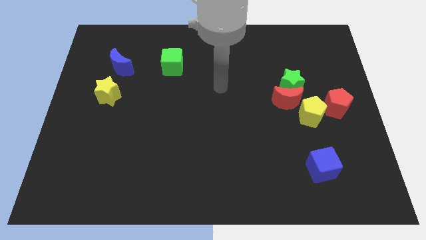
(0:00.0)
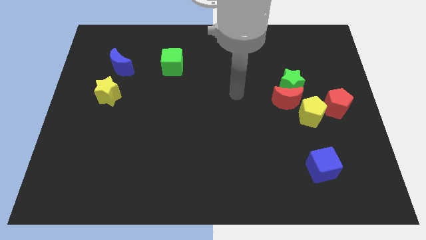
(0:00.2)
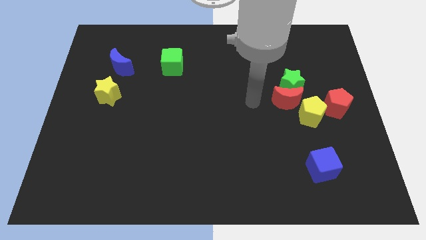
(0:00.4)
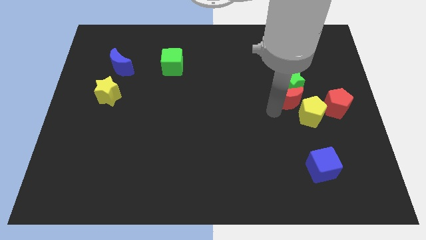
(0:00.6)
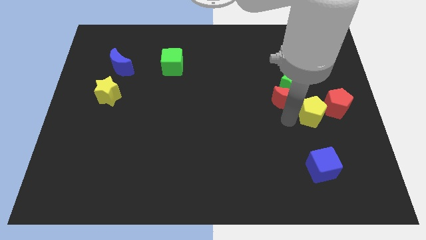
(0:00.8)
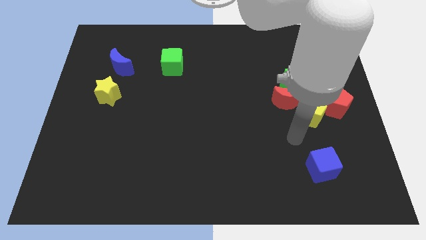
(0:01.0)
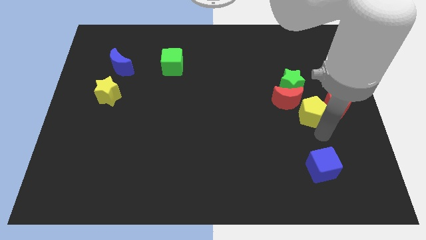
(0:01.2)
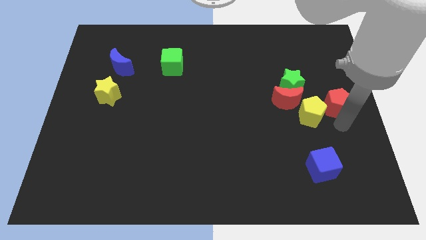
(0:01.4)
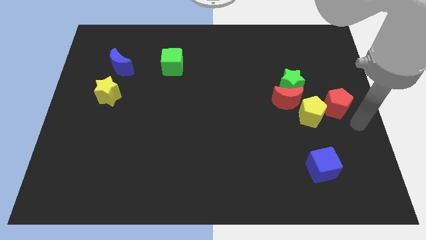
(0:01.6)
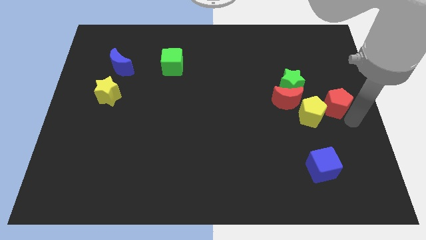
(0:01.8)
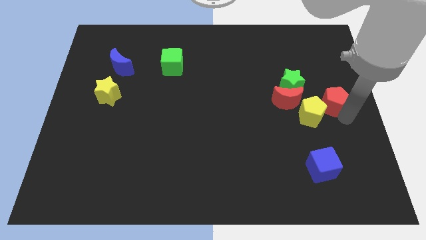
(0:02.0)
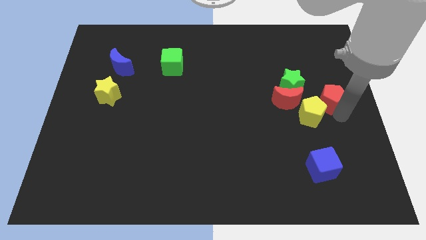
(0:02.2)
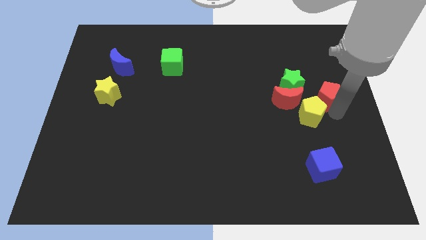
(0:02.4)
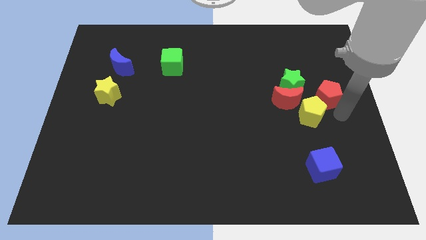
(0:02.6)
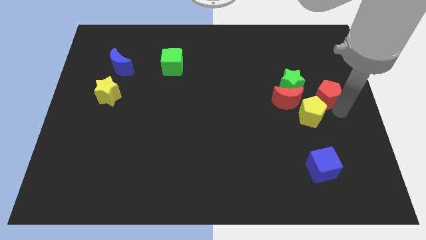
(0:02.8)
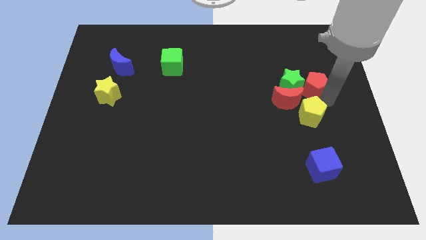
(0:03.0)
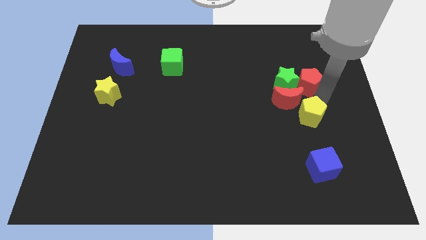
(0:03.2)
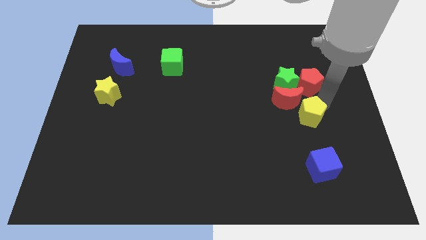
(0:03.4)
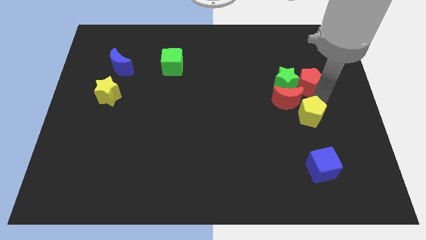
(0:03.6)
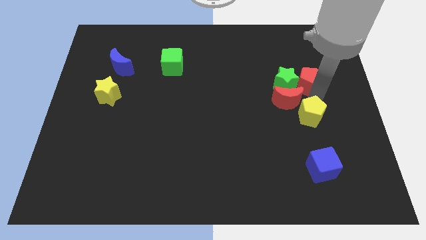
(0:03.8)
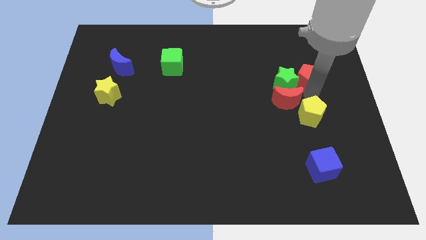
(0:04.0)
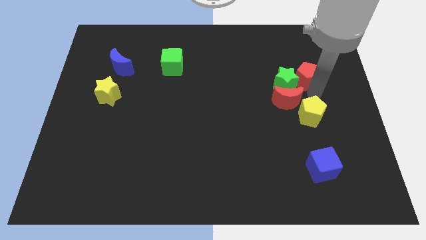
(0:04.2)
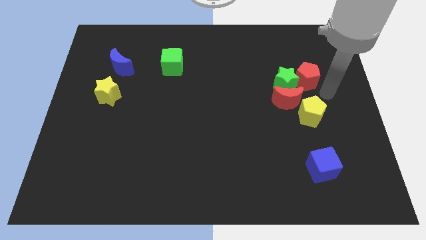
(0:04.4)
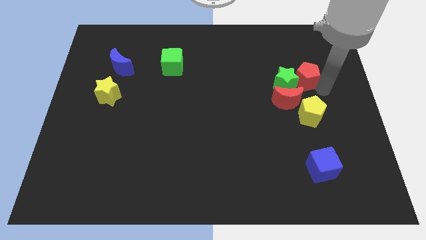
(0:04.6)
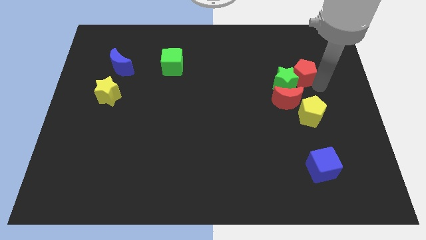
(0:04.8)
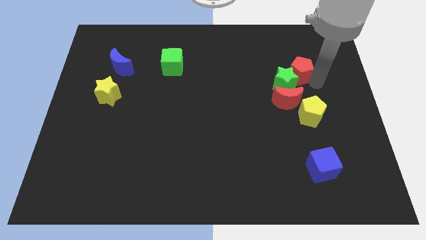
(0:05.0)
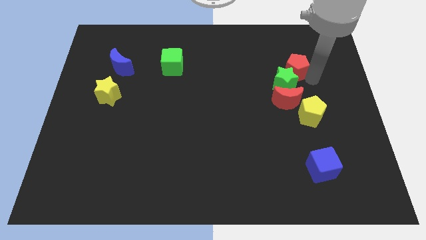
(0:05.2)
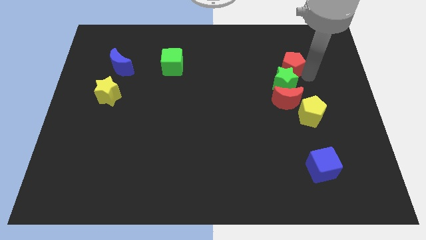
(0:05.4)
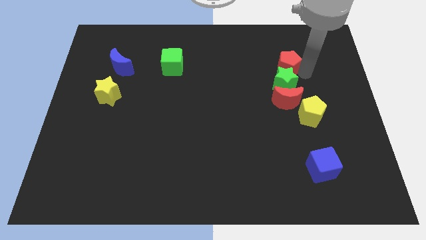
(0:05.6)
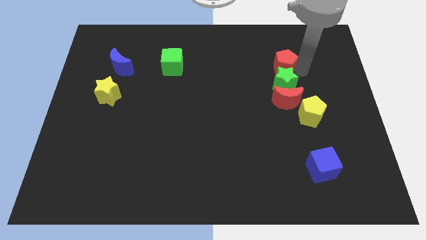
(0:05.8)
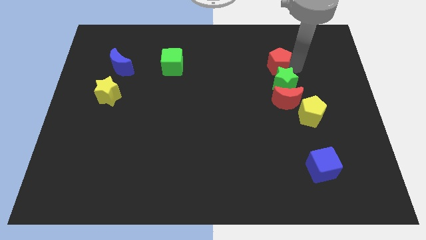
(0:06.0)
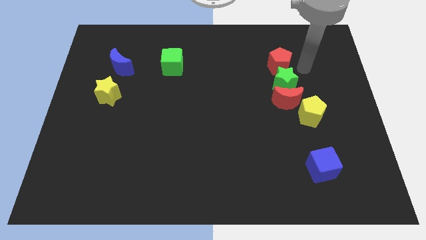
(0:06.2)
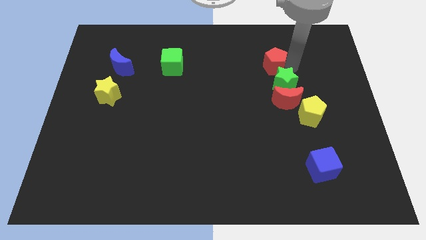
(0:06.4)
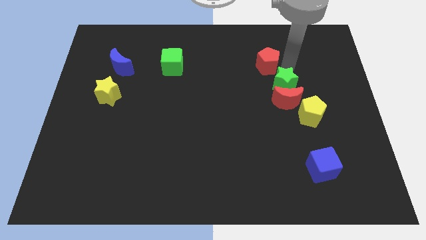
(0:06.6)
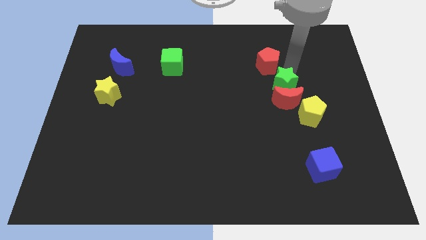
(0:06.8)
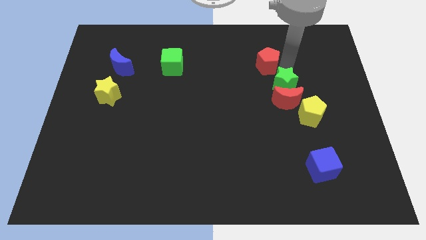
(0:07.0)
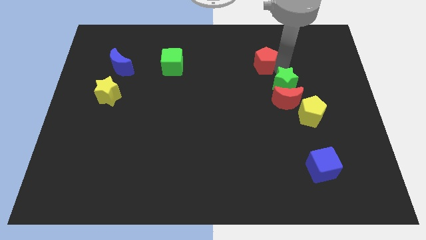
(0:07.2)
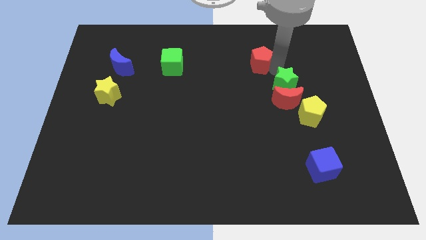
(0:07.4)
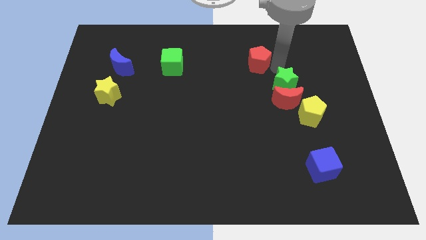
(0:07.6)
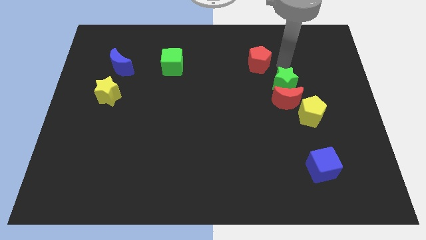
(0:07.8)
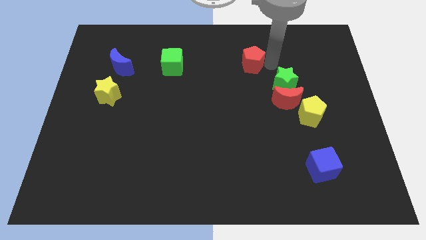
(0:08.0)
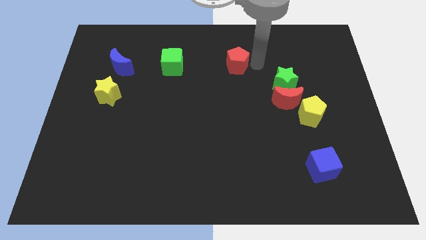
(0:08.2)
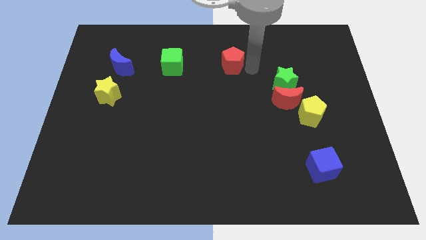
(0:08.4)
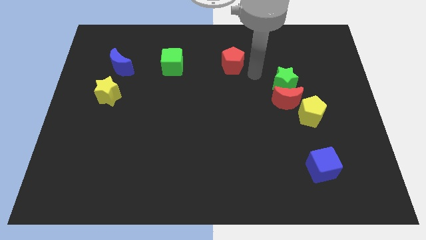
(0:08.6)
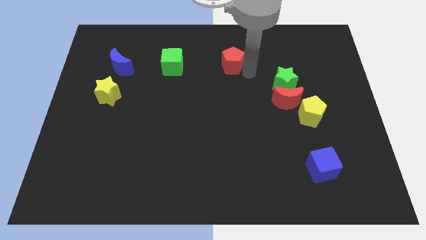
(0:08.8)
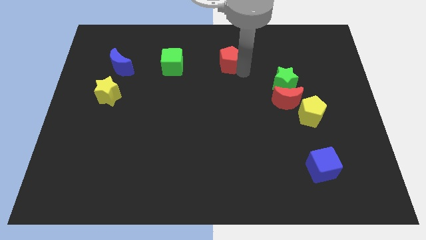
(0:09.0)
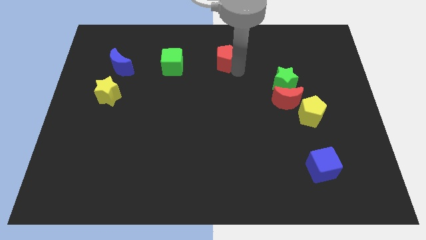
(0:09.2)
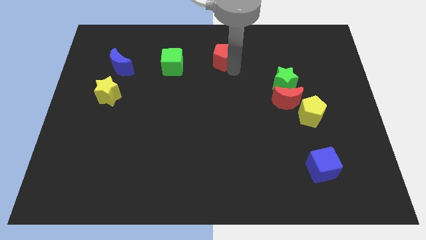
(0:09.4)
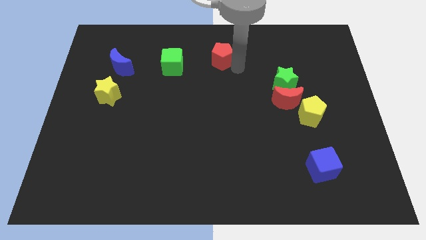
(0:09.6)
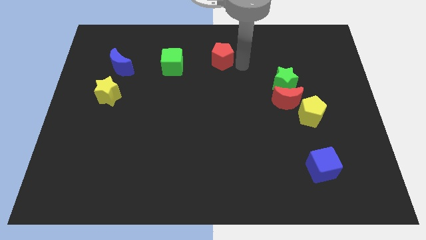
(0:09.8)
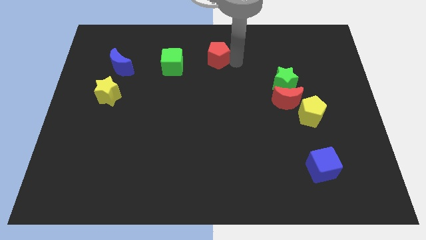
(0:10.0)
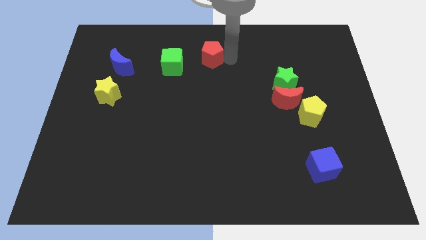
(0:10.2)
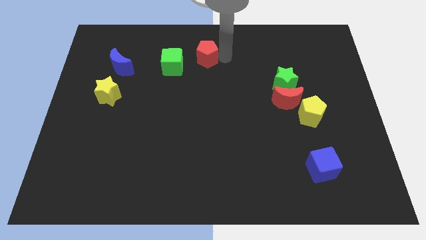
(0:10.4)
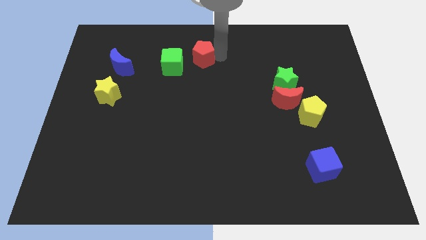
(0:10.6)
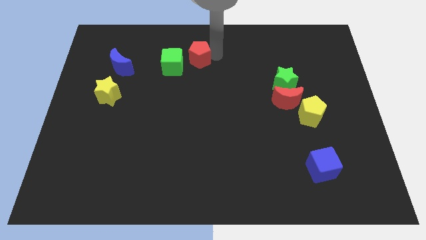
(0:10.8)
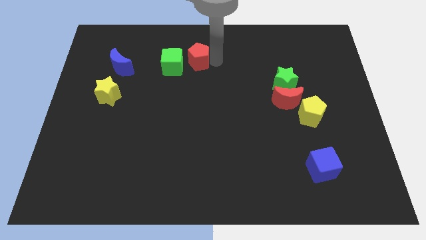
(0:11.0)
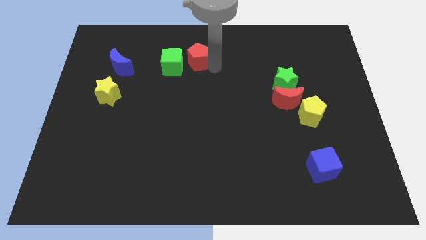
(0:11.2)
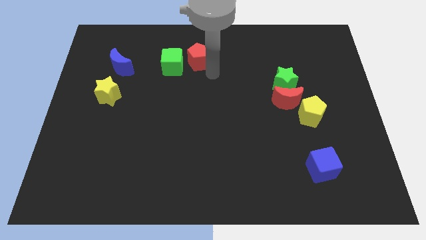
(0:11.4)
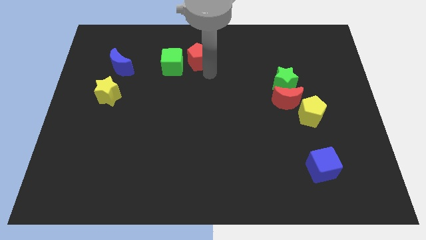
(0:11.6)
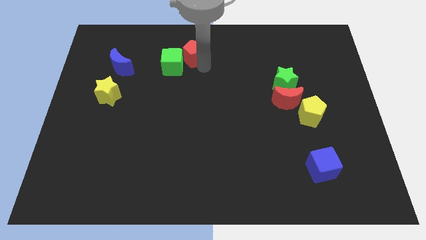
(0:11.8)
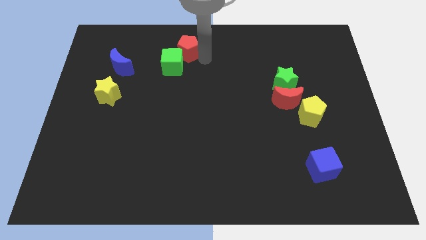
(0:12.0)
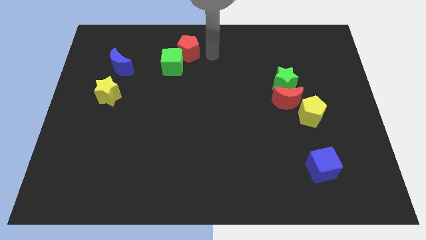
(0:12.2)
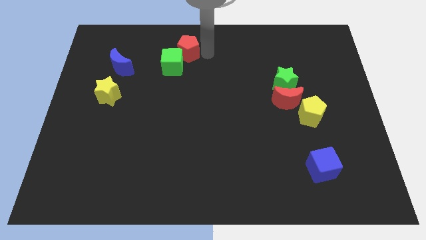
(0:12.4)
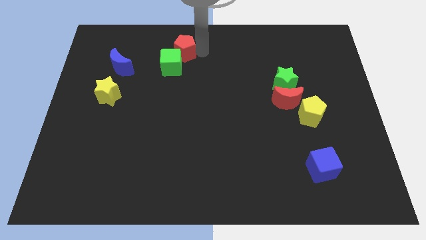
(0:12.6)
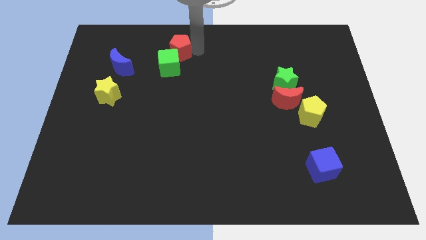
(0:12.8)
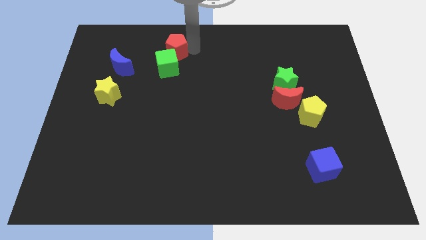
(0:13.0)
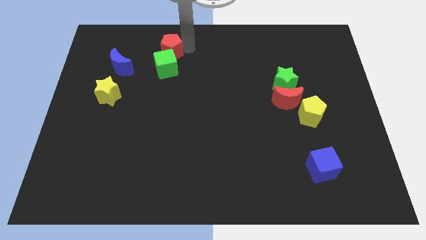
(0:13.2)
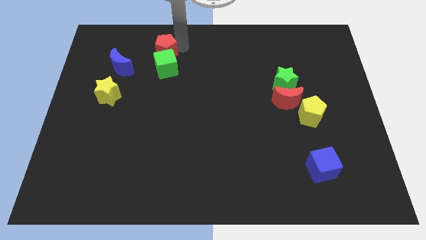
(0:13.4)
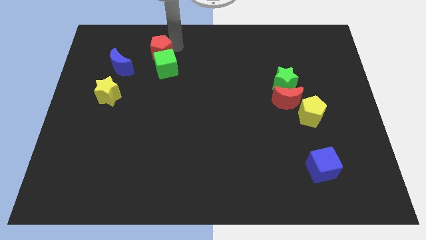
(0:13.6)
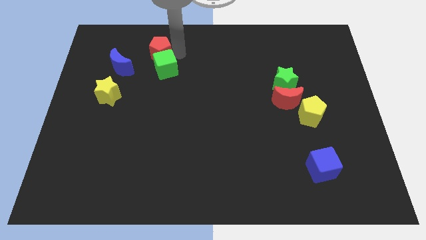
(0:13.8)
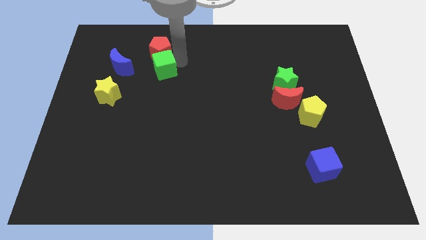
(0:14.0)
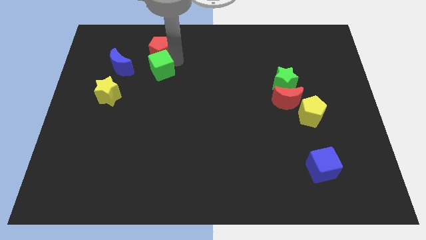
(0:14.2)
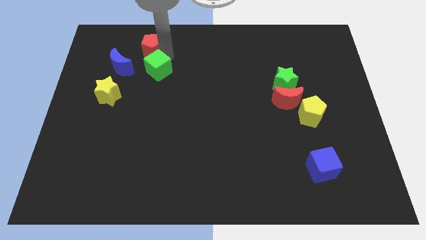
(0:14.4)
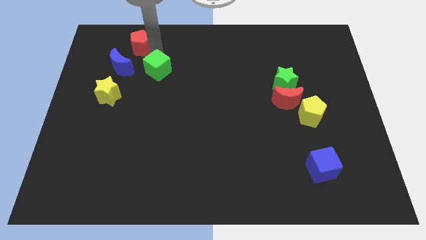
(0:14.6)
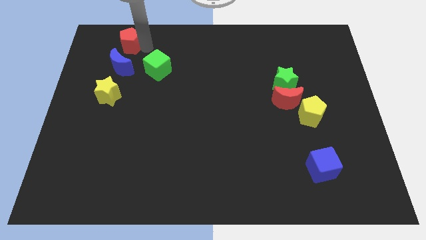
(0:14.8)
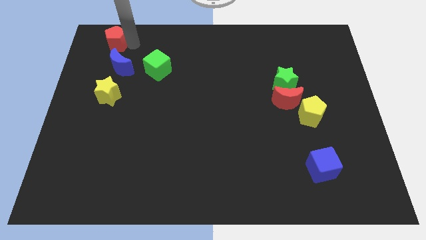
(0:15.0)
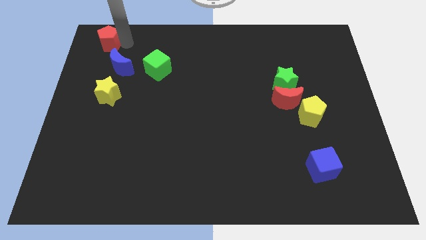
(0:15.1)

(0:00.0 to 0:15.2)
slide the red pentagon to the top left corner
